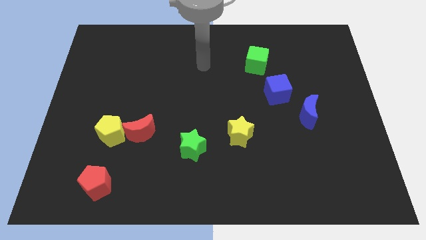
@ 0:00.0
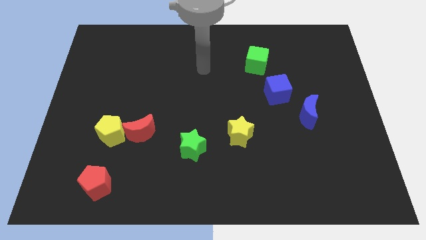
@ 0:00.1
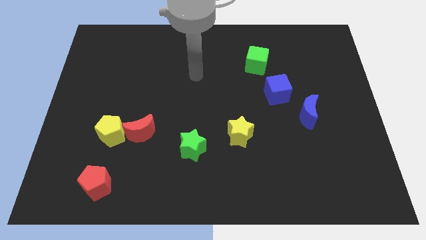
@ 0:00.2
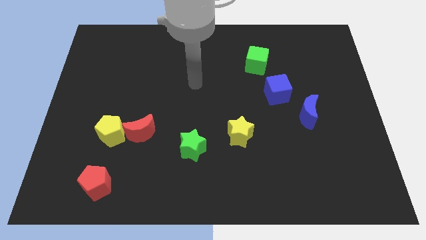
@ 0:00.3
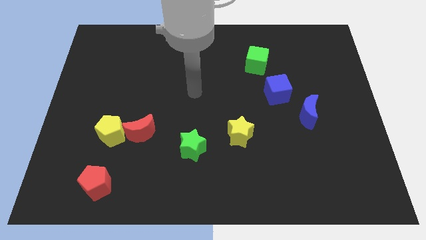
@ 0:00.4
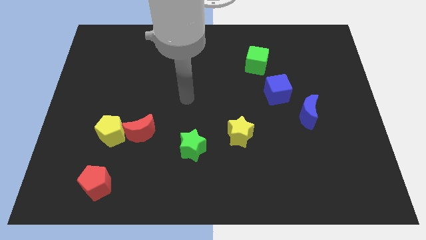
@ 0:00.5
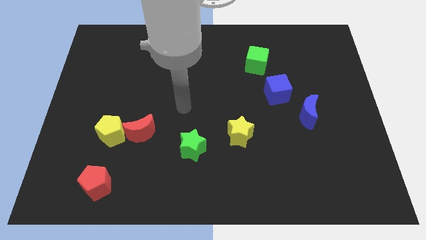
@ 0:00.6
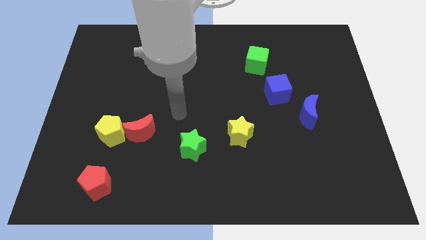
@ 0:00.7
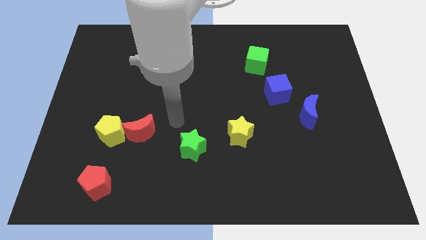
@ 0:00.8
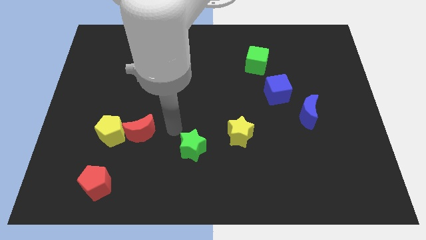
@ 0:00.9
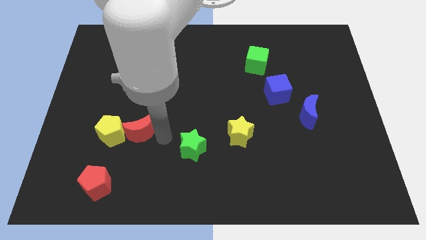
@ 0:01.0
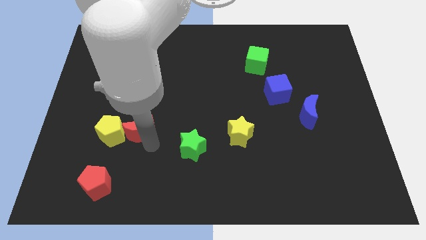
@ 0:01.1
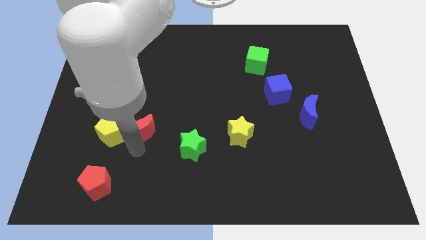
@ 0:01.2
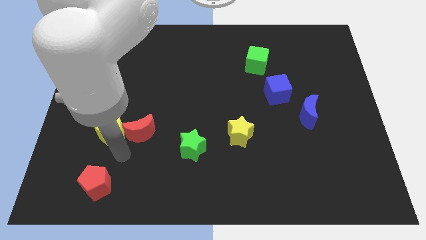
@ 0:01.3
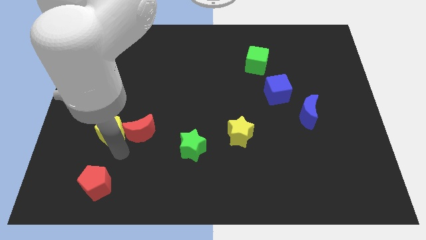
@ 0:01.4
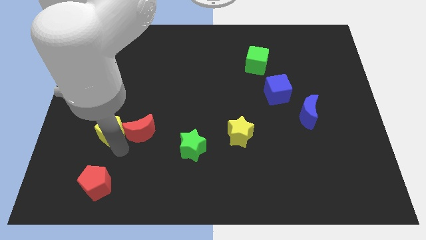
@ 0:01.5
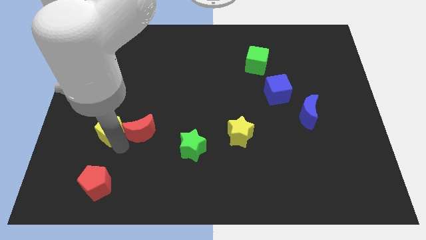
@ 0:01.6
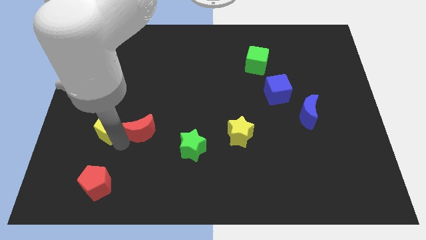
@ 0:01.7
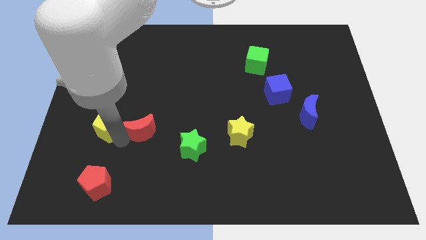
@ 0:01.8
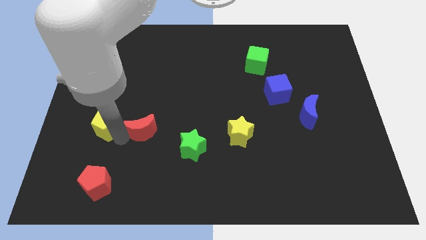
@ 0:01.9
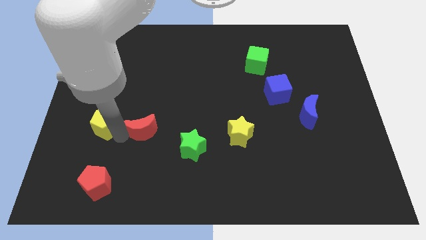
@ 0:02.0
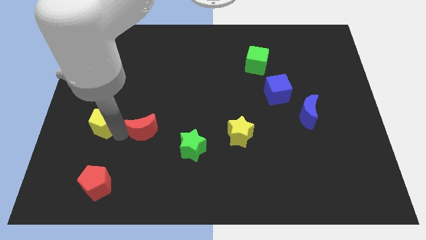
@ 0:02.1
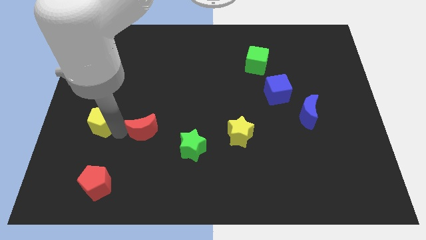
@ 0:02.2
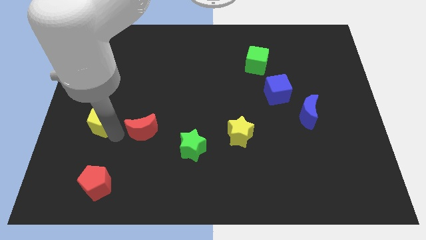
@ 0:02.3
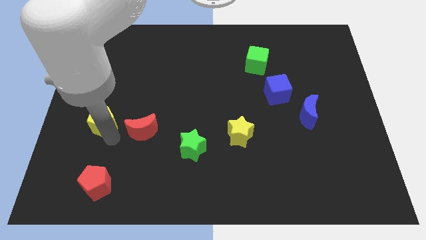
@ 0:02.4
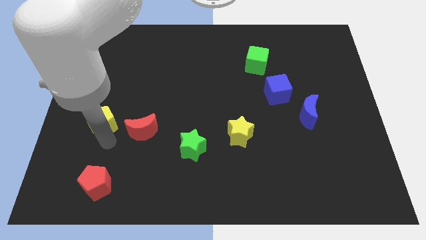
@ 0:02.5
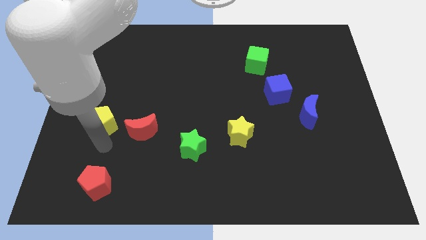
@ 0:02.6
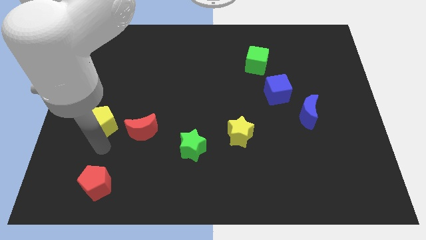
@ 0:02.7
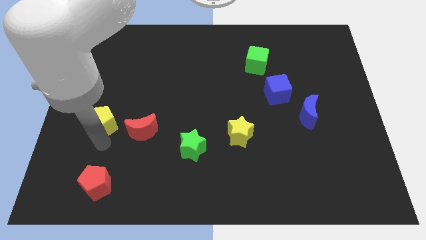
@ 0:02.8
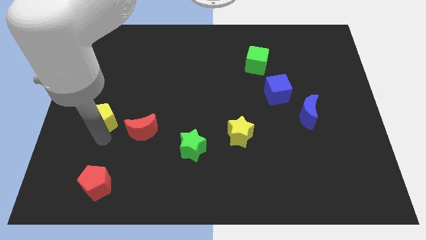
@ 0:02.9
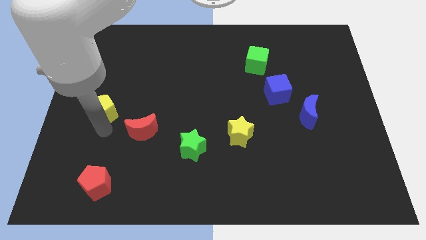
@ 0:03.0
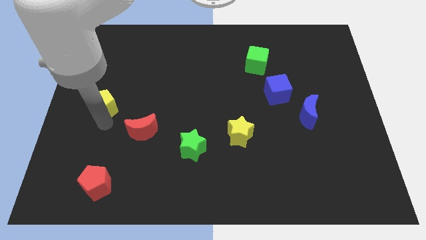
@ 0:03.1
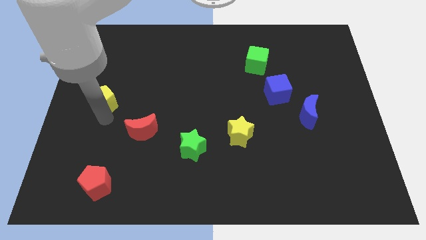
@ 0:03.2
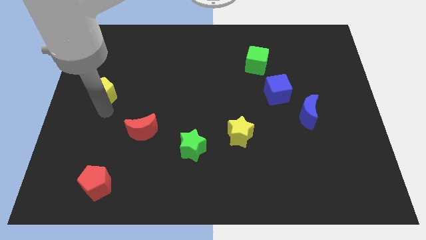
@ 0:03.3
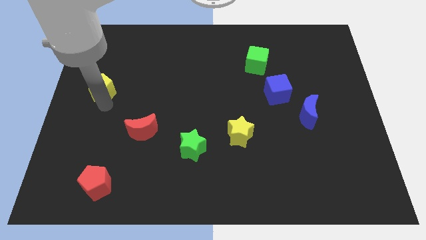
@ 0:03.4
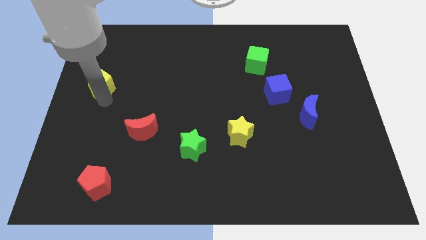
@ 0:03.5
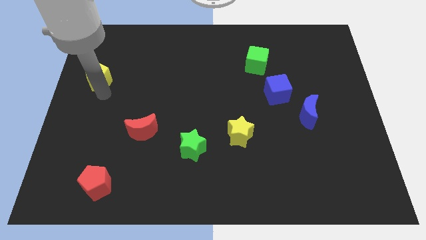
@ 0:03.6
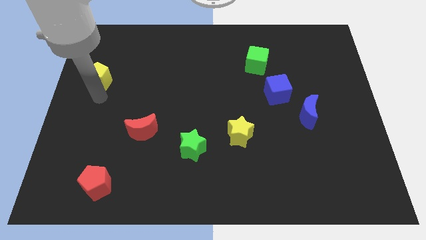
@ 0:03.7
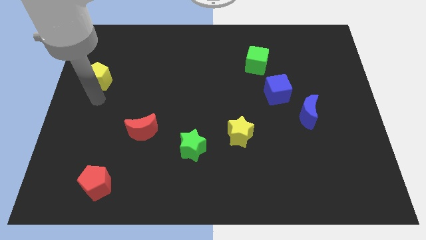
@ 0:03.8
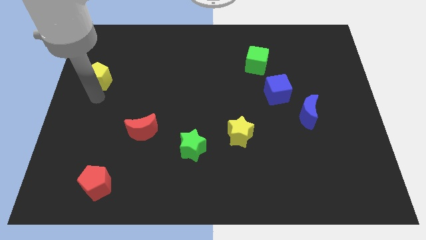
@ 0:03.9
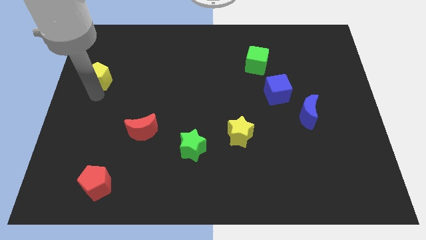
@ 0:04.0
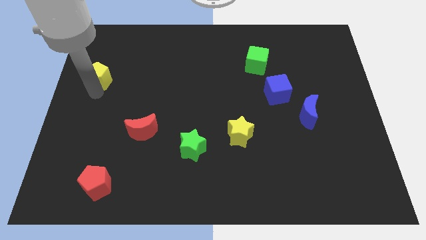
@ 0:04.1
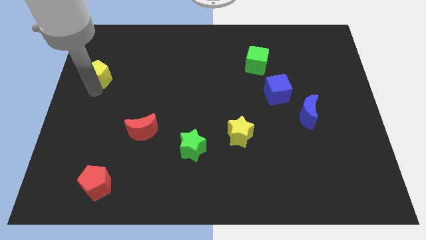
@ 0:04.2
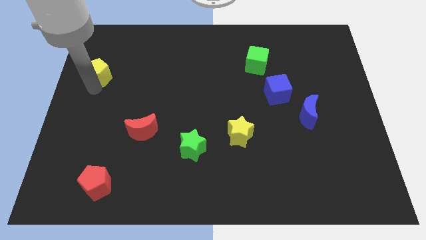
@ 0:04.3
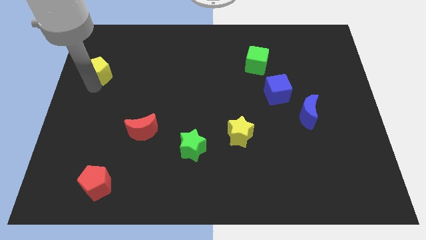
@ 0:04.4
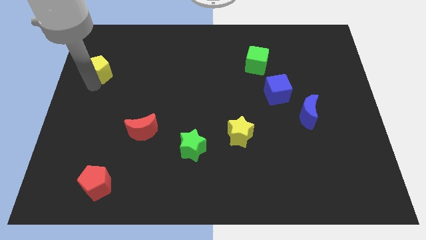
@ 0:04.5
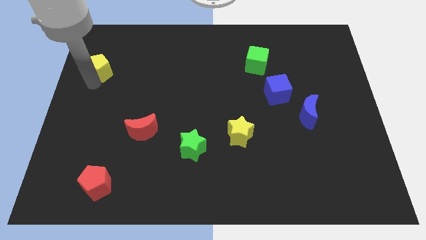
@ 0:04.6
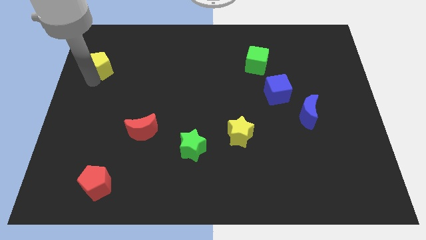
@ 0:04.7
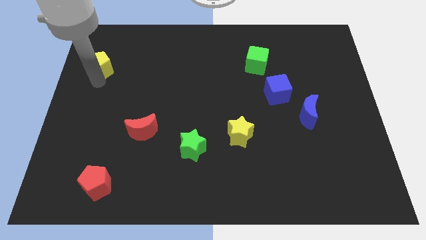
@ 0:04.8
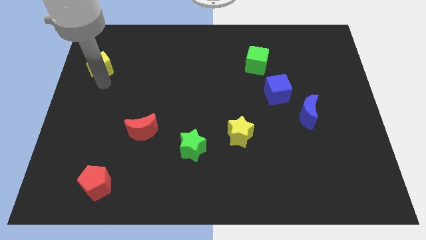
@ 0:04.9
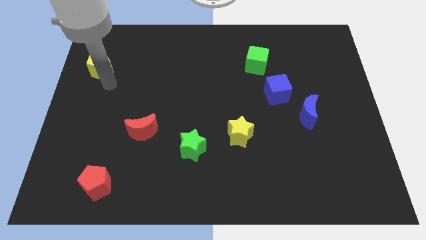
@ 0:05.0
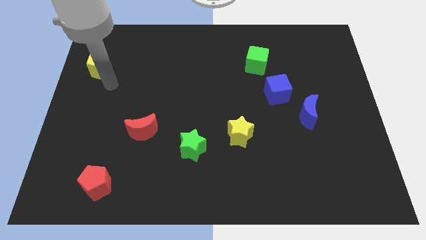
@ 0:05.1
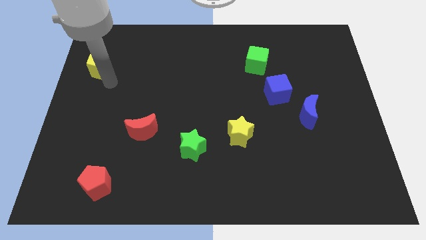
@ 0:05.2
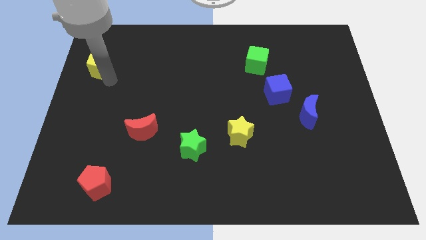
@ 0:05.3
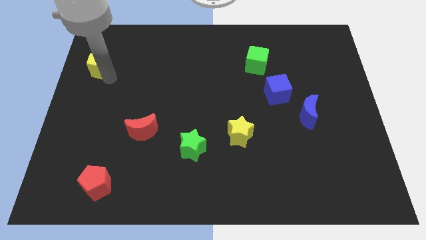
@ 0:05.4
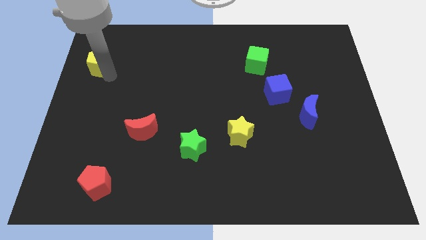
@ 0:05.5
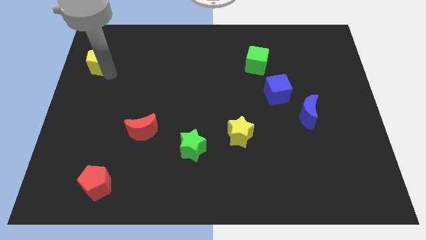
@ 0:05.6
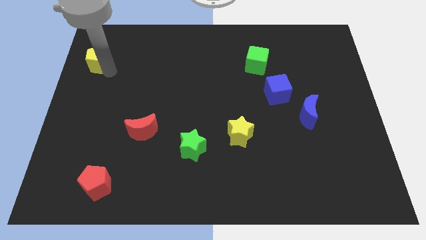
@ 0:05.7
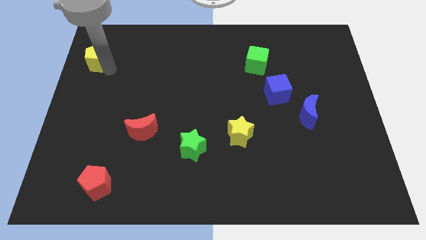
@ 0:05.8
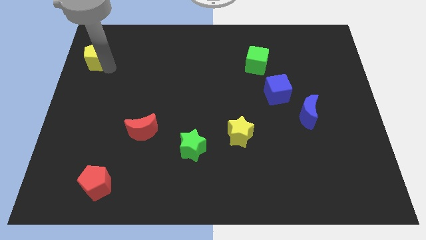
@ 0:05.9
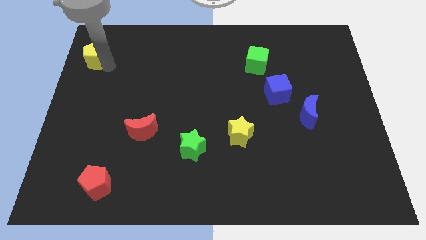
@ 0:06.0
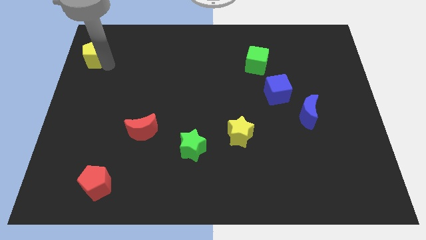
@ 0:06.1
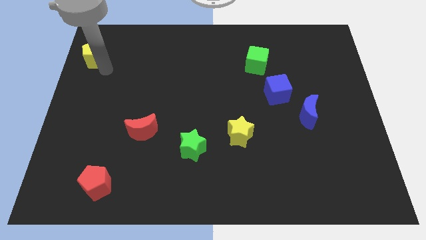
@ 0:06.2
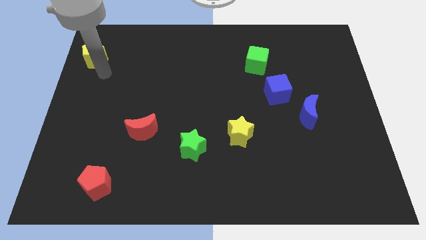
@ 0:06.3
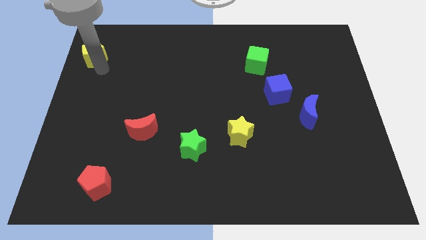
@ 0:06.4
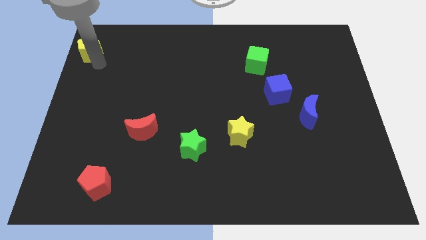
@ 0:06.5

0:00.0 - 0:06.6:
move the yellow pentagon to the upper left corner
